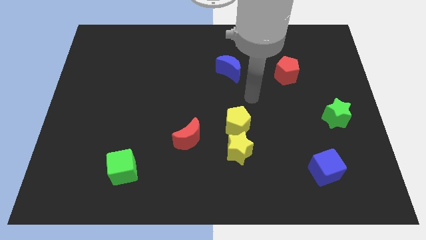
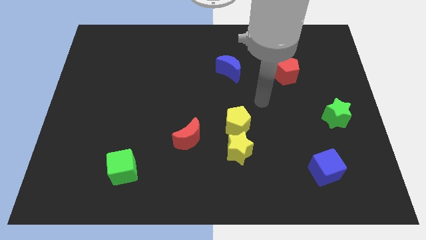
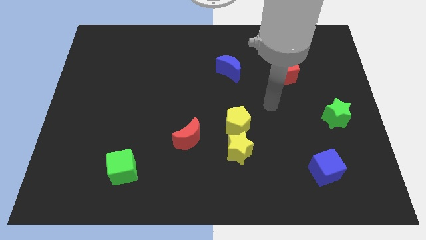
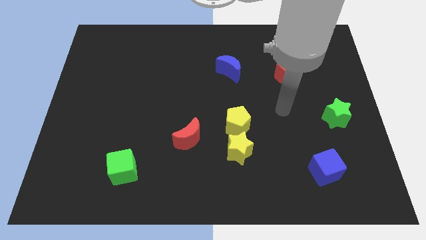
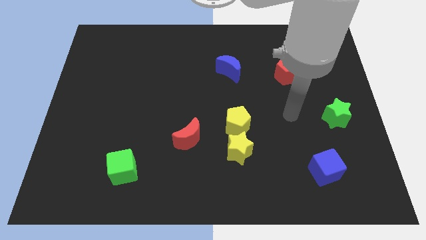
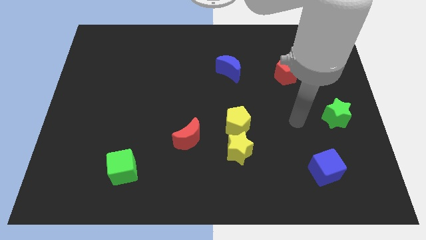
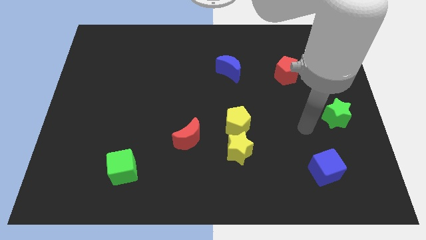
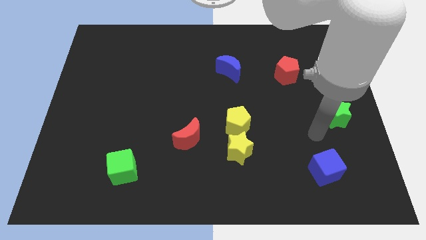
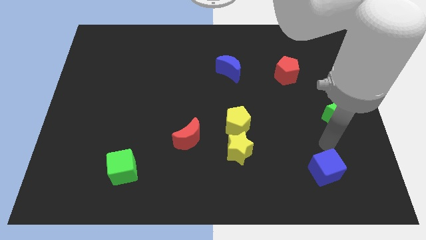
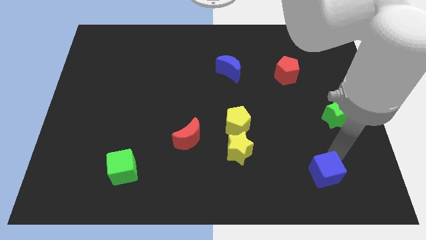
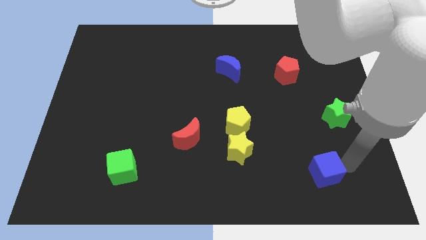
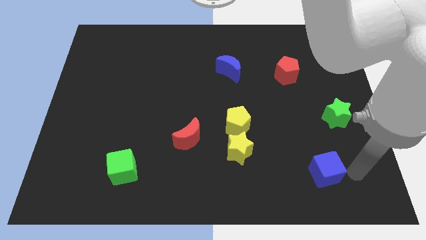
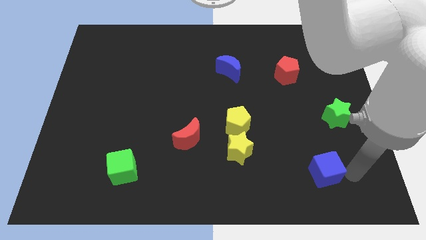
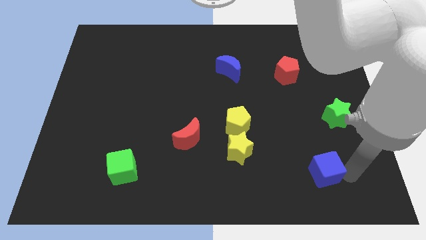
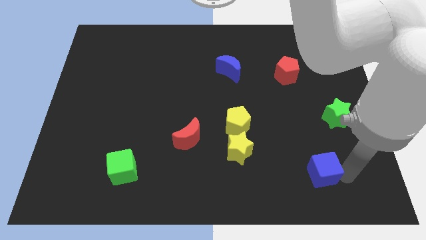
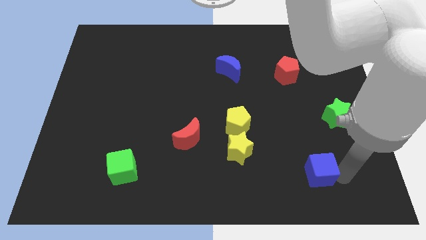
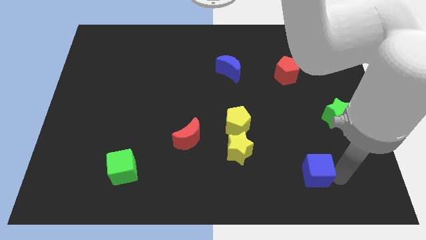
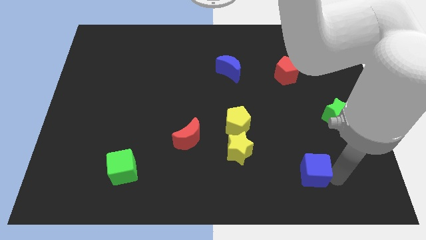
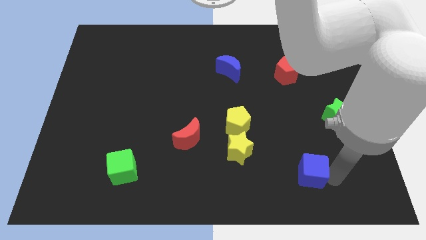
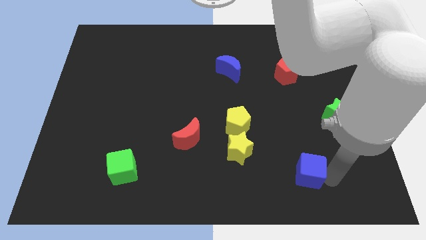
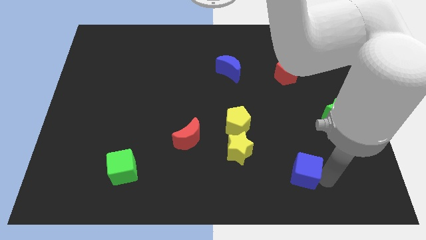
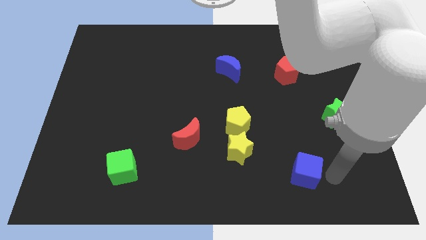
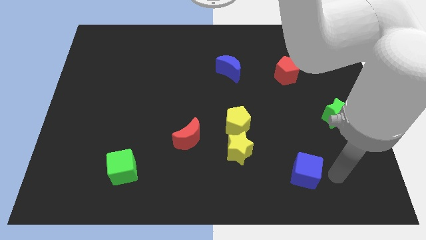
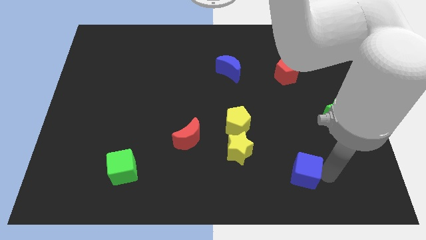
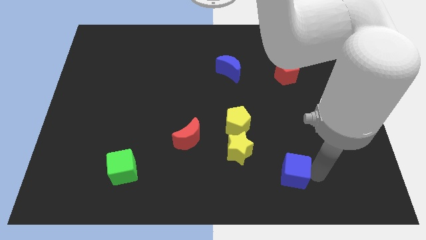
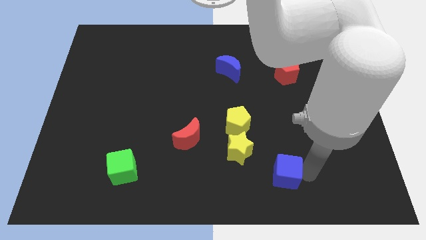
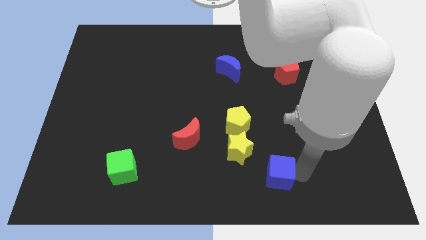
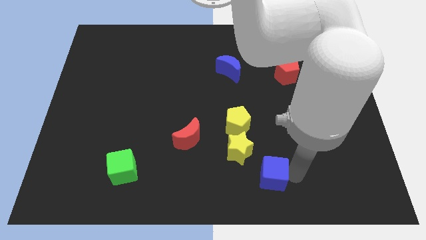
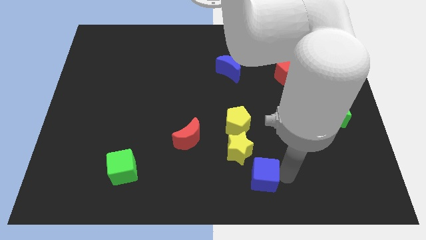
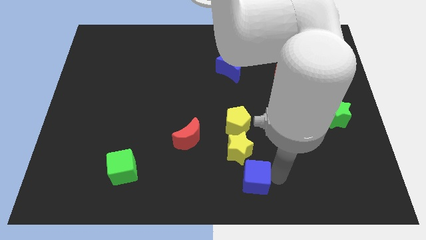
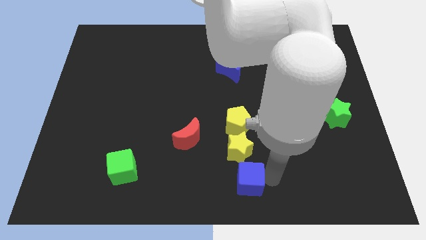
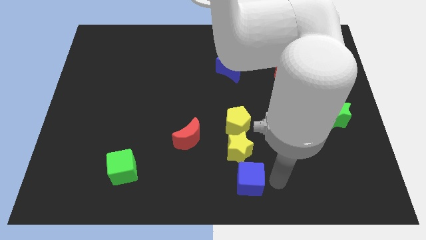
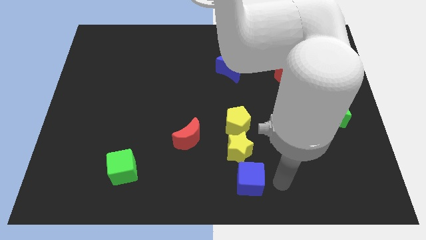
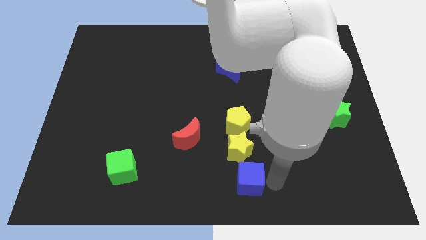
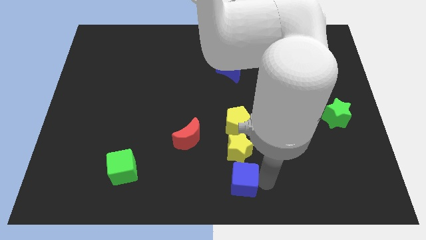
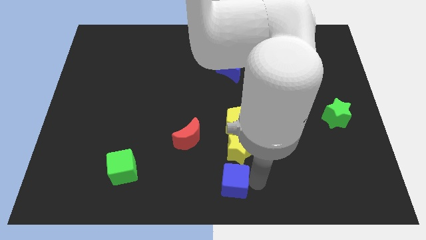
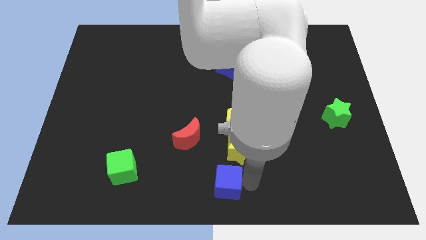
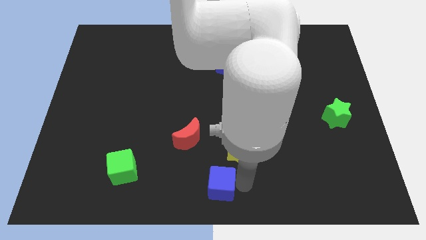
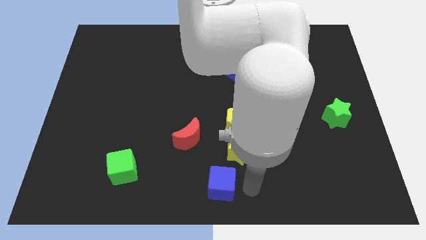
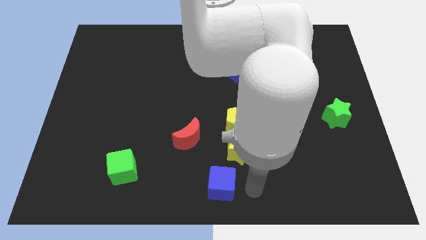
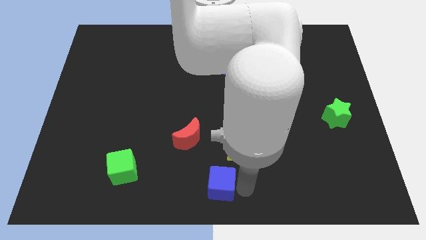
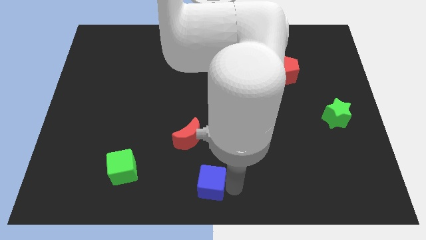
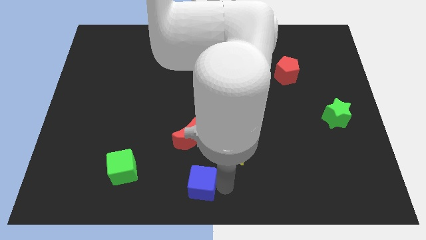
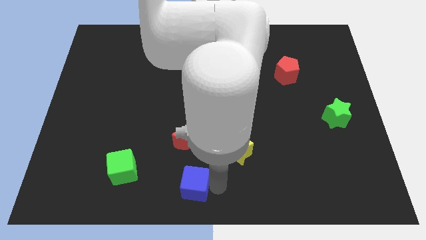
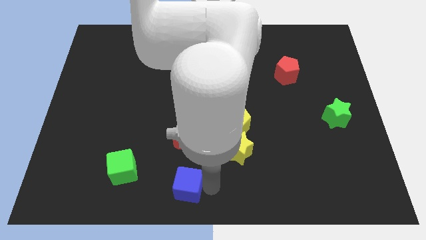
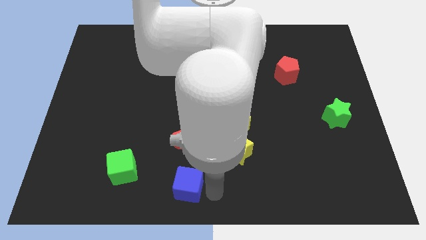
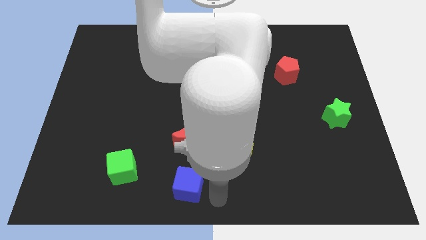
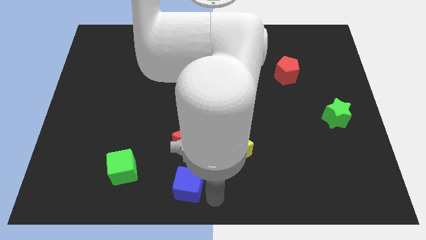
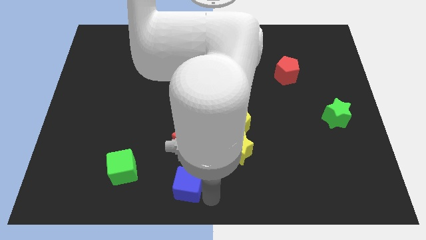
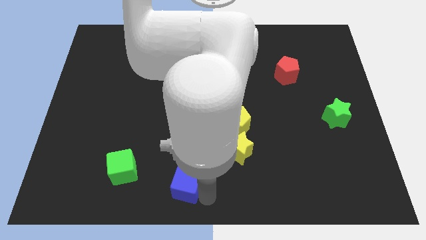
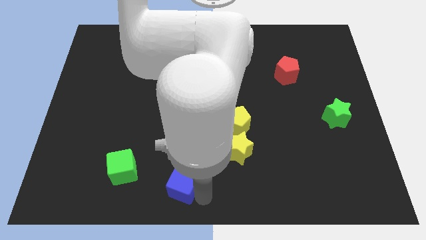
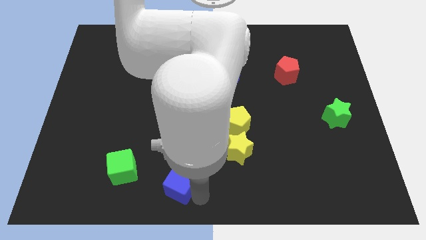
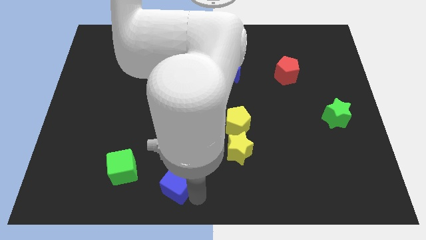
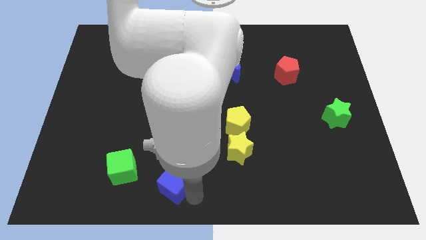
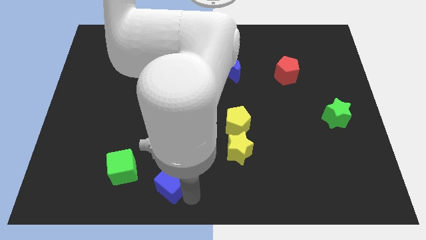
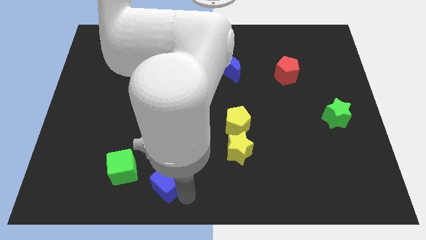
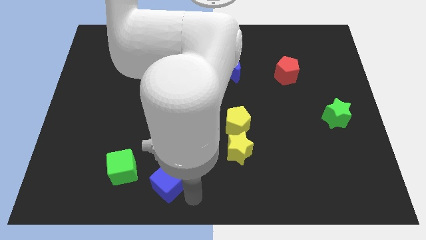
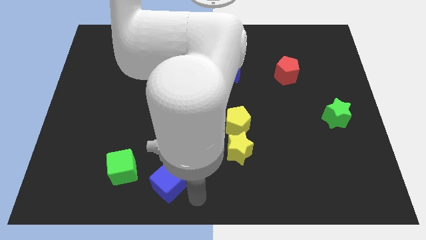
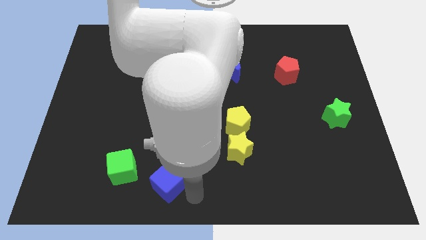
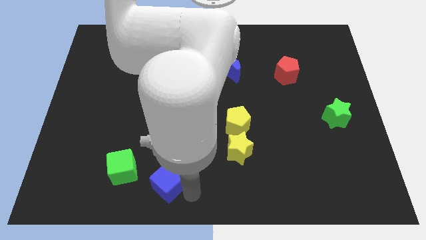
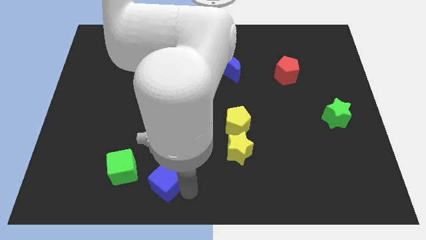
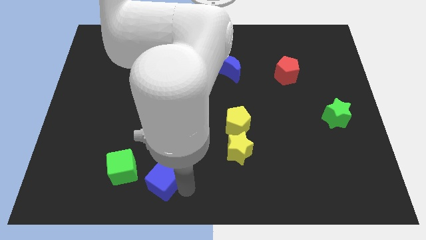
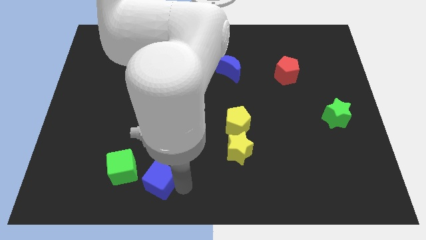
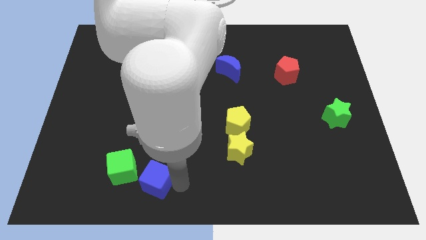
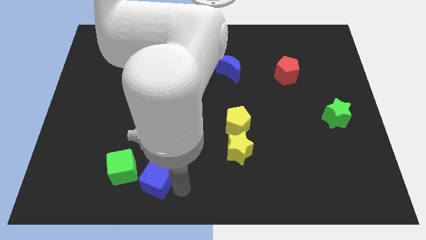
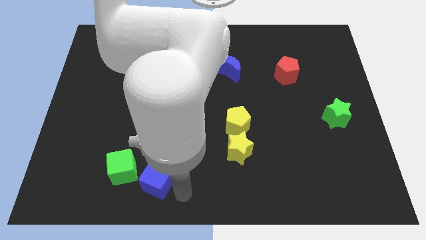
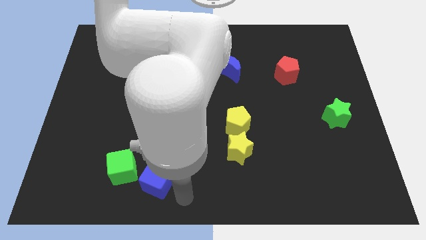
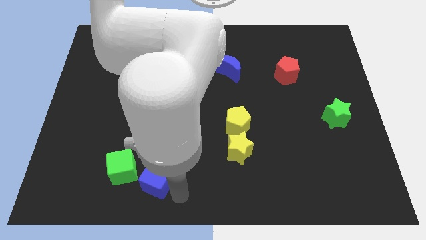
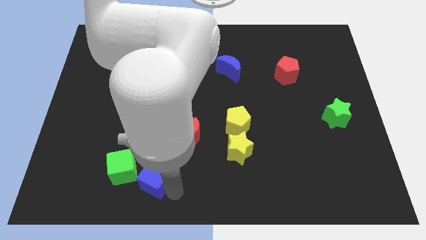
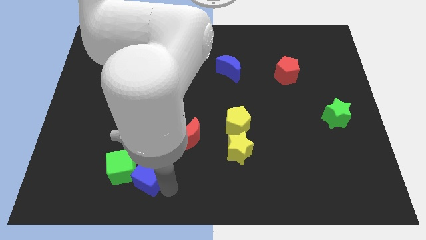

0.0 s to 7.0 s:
move the blue cube next to the green cube

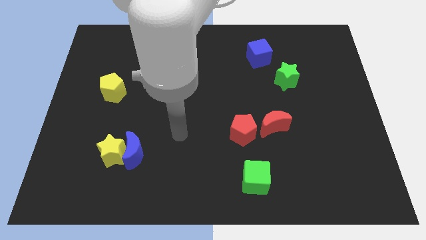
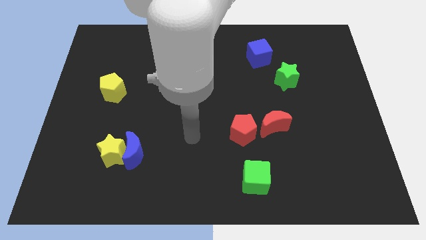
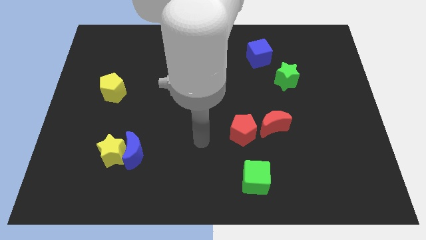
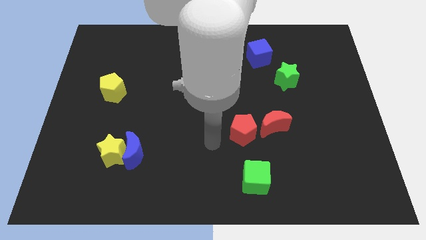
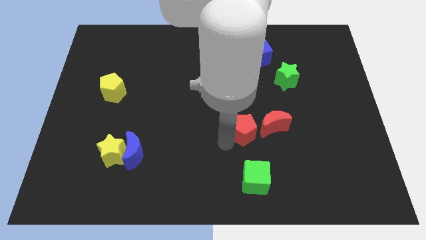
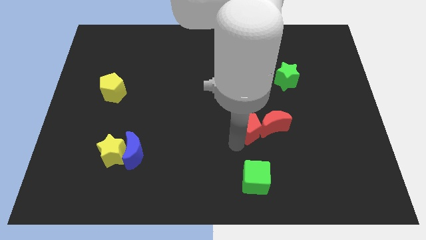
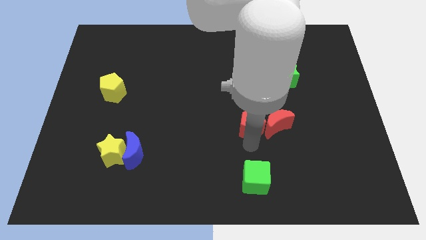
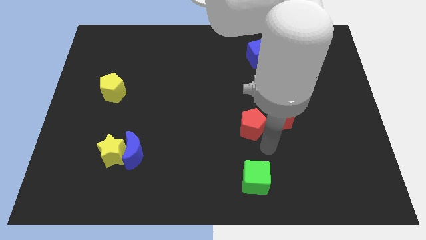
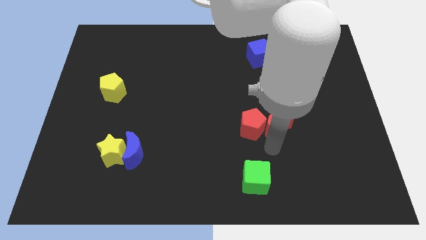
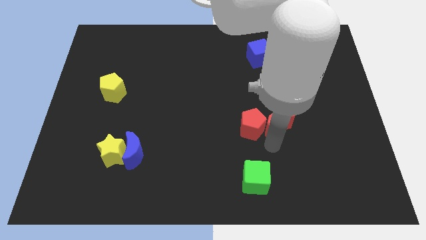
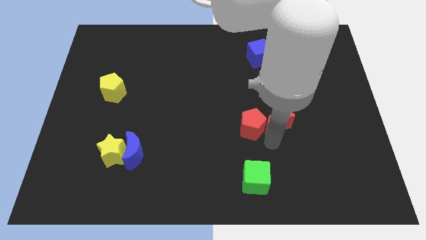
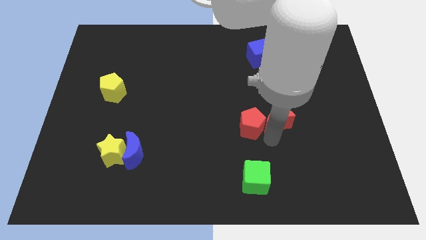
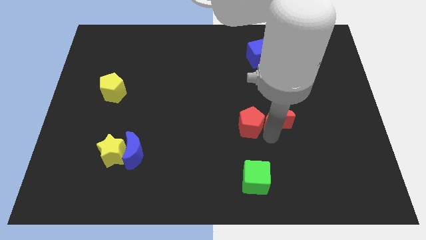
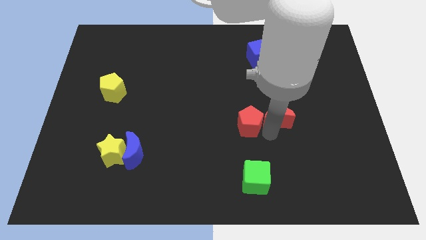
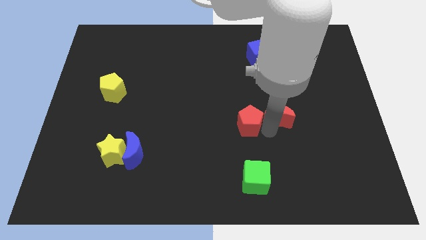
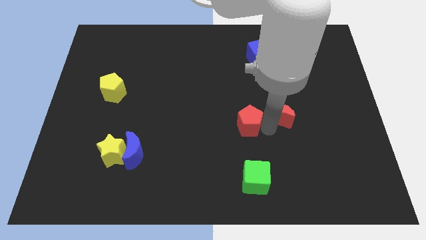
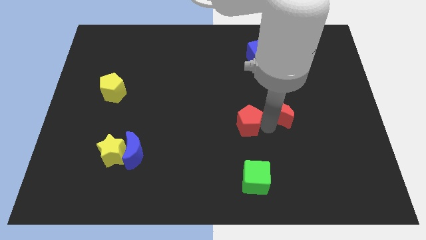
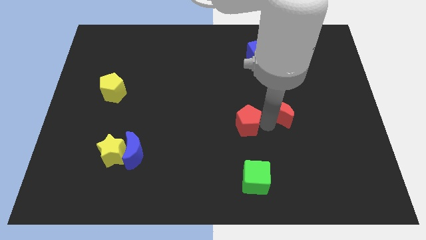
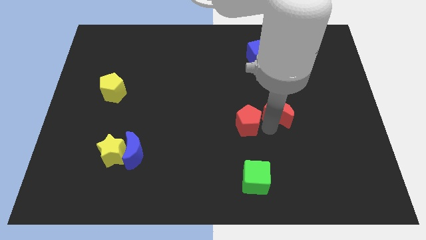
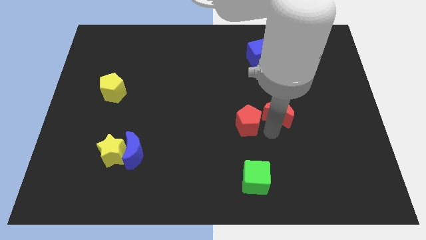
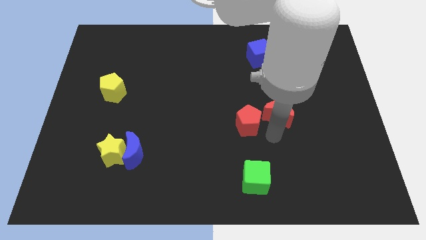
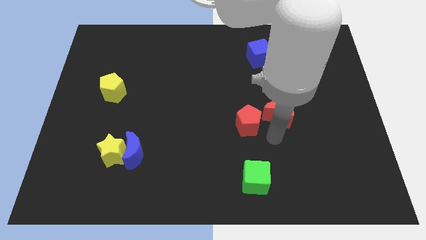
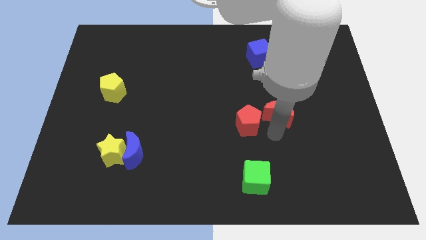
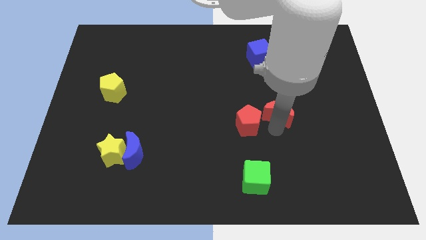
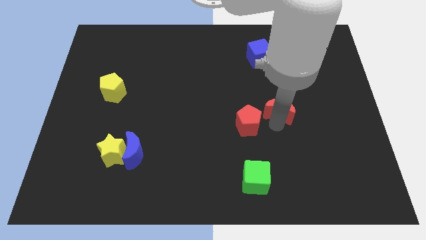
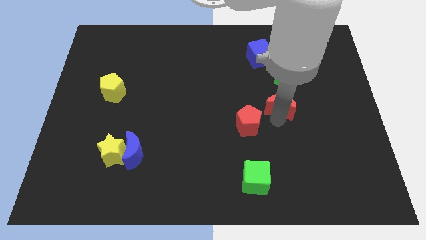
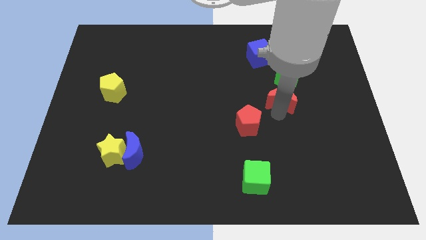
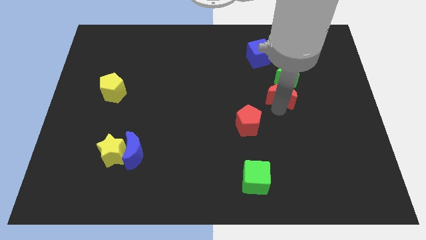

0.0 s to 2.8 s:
push the red moon close to the green star
